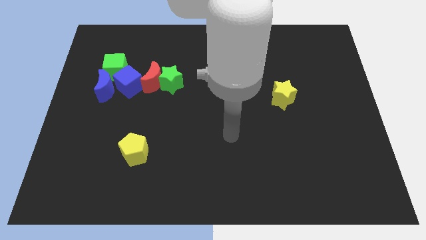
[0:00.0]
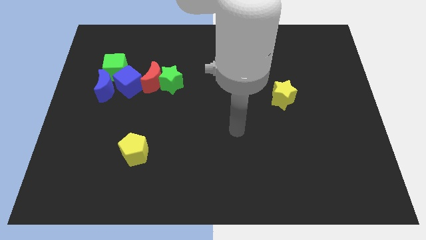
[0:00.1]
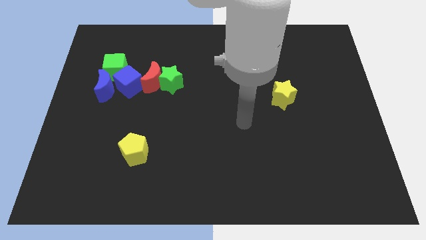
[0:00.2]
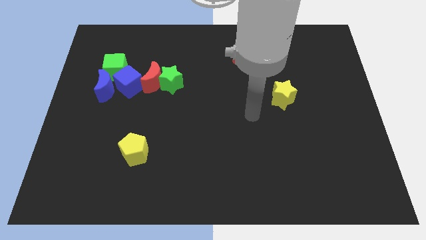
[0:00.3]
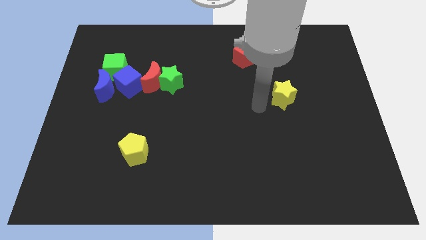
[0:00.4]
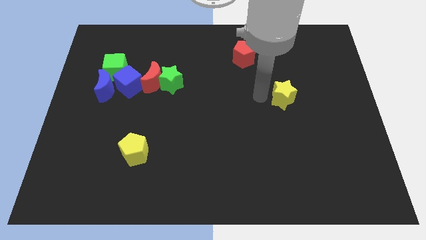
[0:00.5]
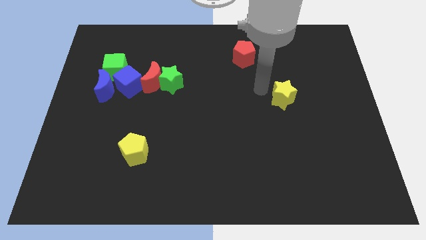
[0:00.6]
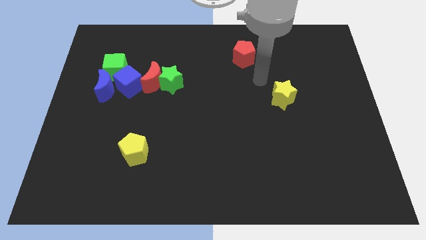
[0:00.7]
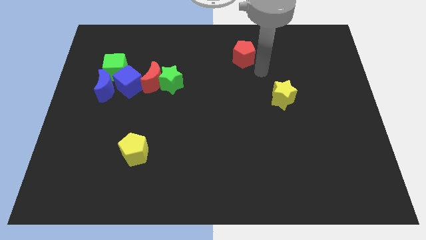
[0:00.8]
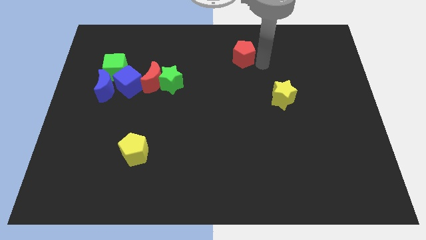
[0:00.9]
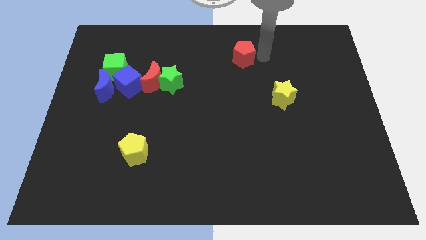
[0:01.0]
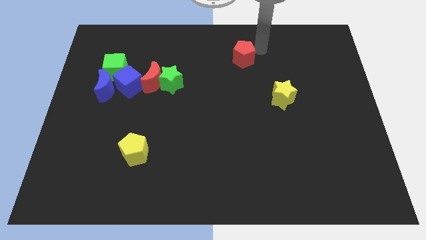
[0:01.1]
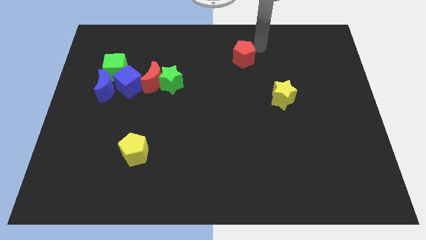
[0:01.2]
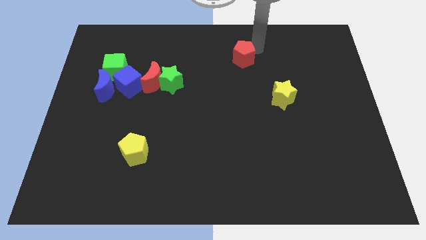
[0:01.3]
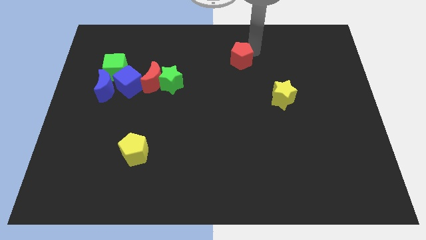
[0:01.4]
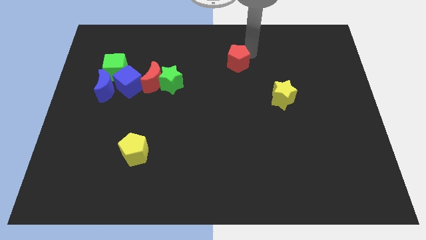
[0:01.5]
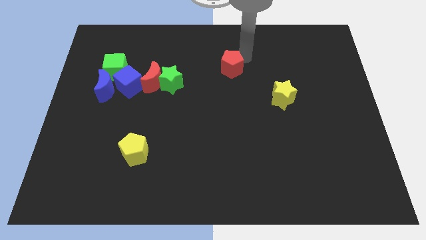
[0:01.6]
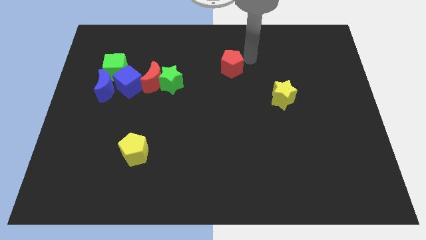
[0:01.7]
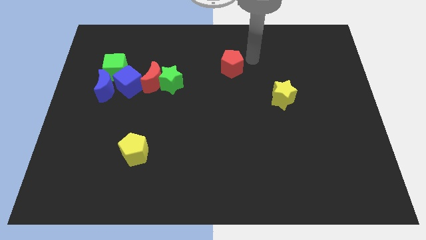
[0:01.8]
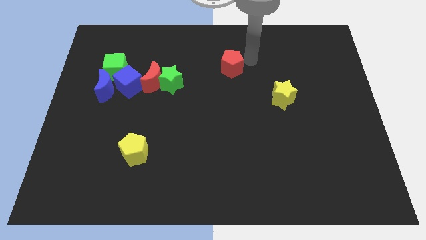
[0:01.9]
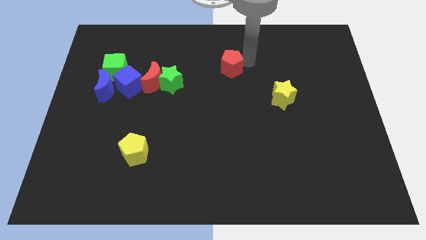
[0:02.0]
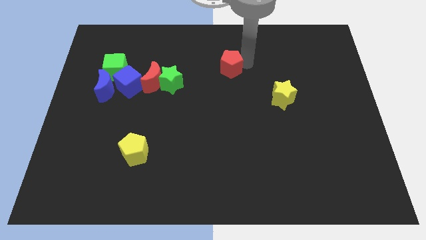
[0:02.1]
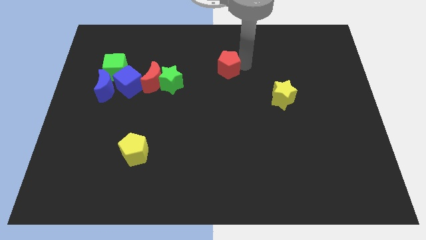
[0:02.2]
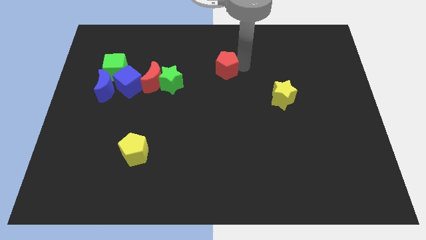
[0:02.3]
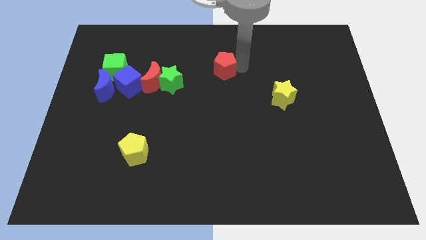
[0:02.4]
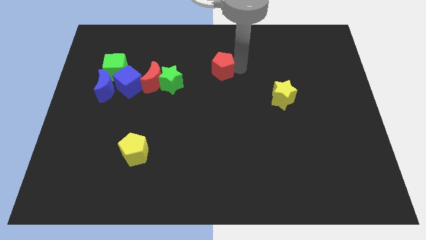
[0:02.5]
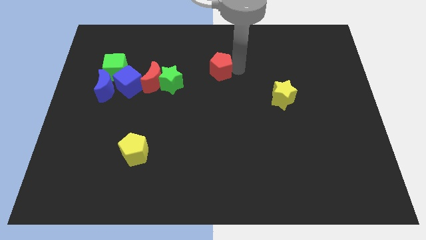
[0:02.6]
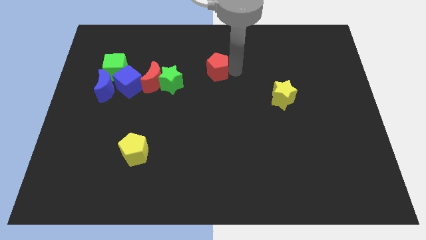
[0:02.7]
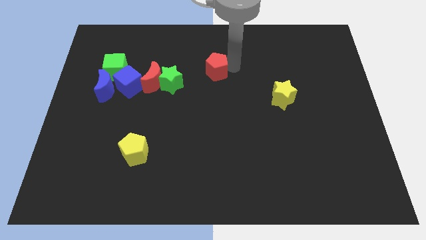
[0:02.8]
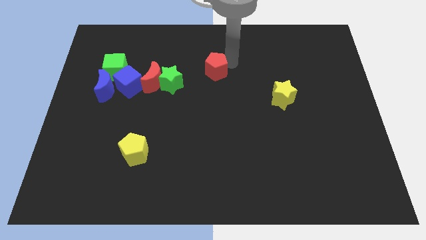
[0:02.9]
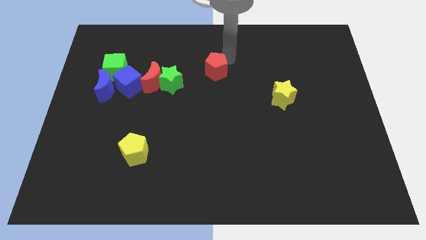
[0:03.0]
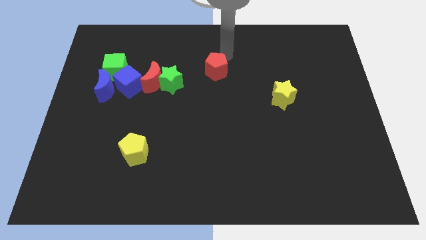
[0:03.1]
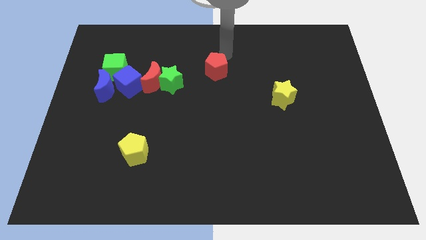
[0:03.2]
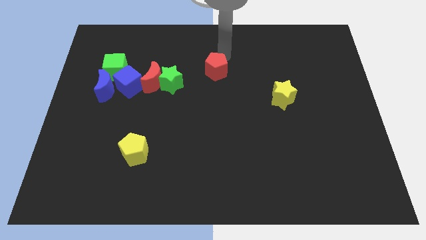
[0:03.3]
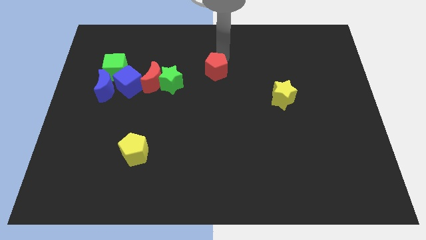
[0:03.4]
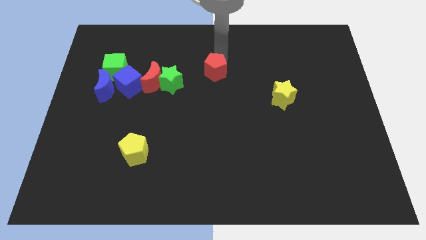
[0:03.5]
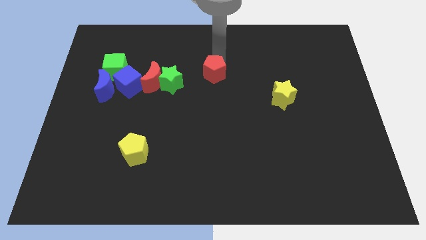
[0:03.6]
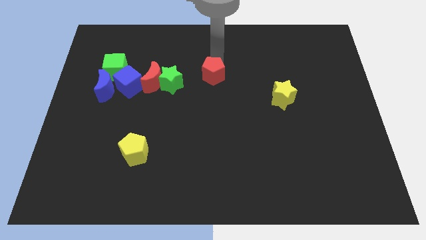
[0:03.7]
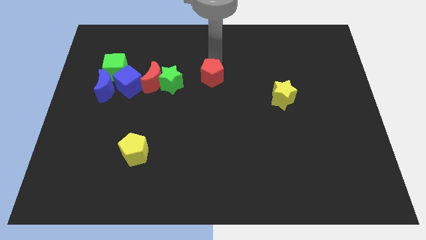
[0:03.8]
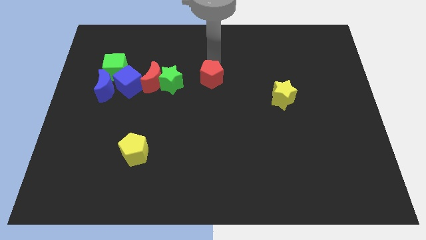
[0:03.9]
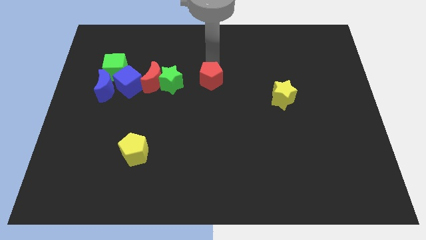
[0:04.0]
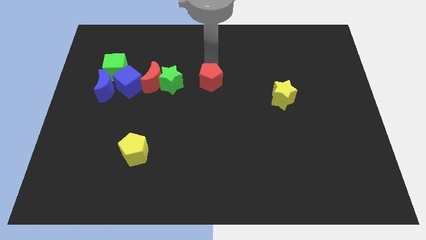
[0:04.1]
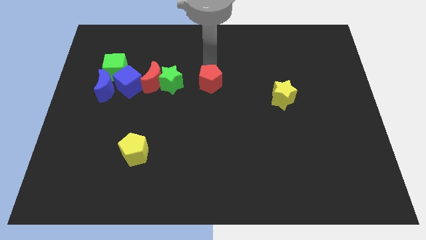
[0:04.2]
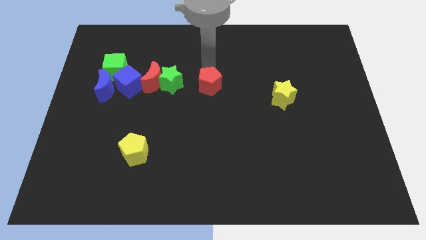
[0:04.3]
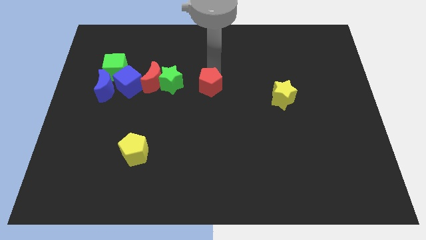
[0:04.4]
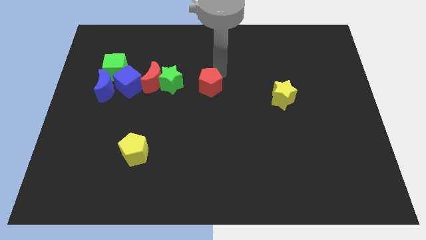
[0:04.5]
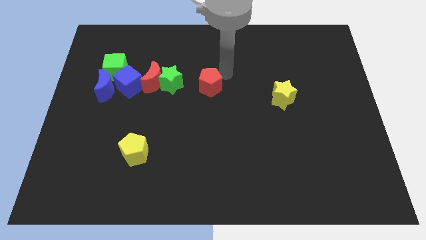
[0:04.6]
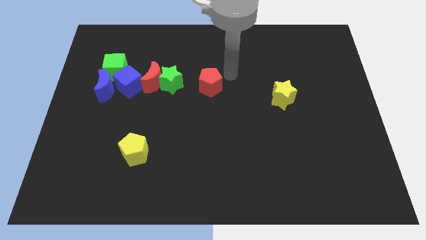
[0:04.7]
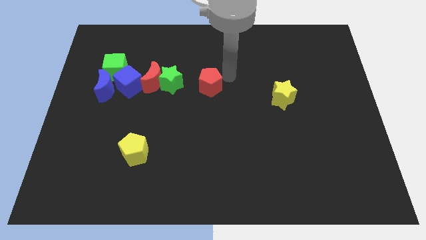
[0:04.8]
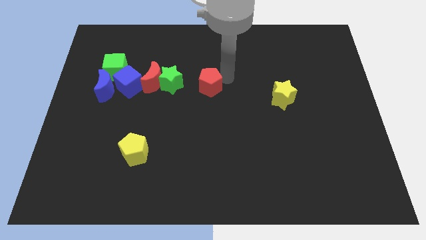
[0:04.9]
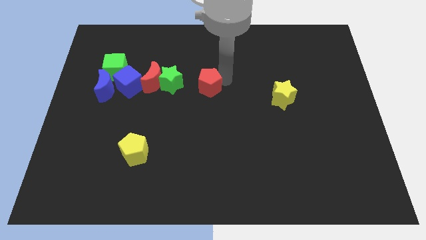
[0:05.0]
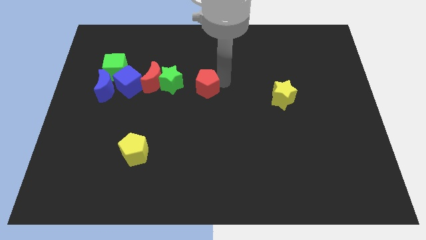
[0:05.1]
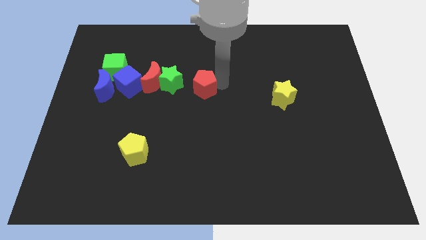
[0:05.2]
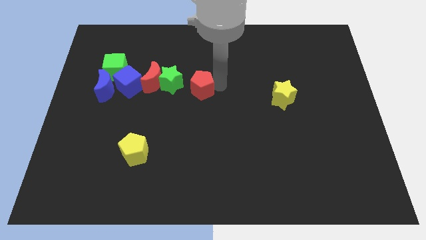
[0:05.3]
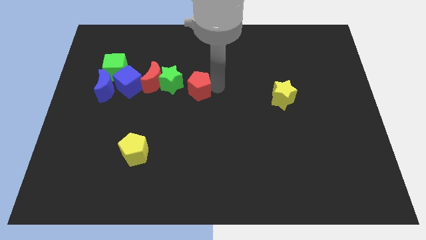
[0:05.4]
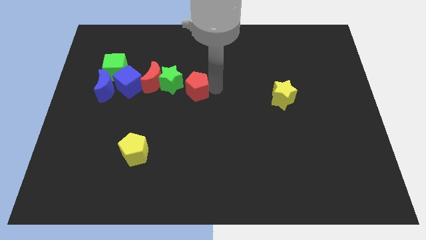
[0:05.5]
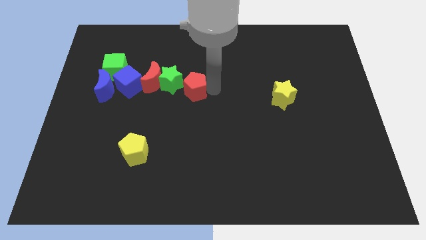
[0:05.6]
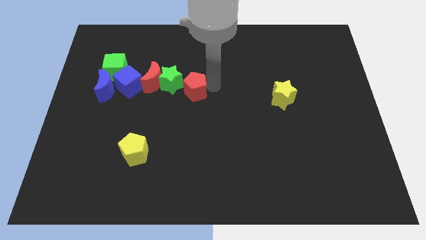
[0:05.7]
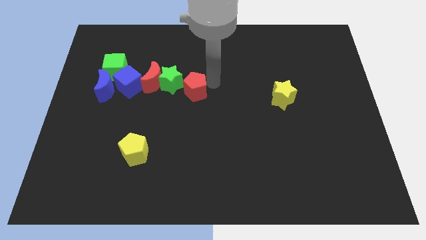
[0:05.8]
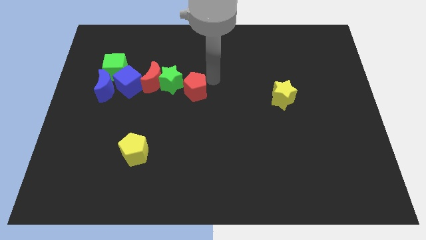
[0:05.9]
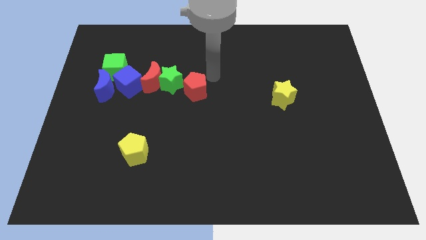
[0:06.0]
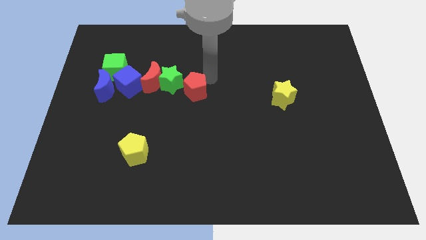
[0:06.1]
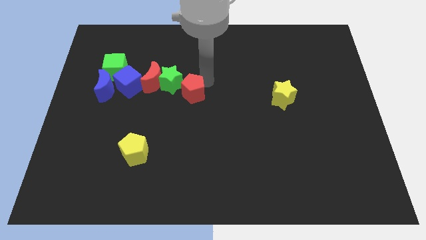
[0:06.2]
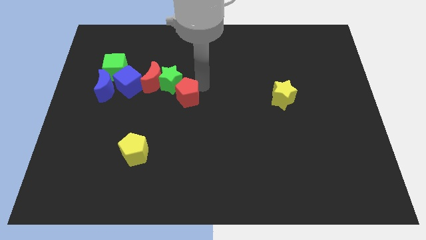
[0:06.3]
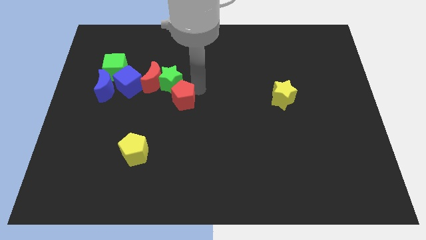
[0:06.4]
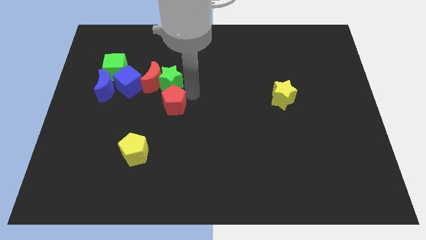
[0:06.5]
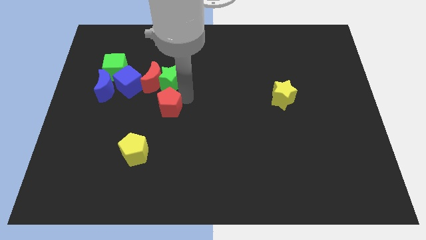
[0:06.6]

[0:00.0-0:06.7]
move the red pentagon to the bottom side of the red moon

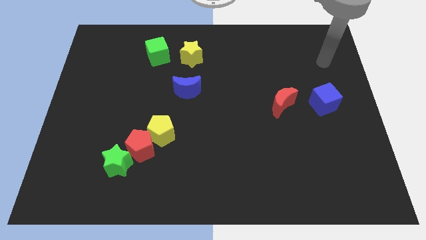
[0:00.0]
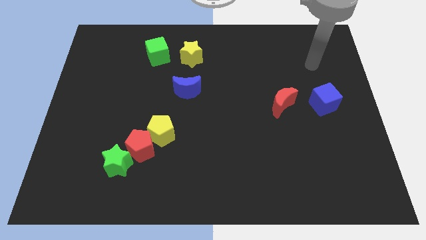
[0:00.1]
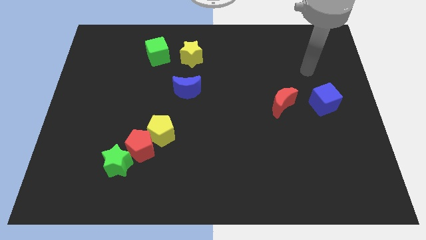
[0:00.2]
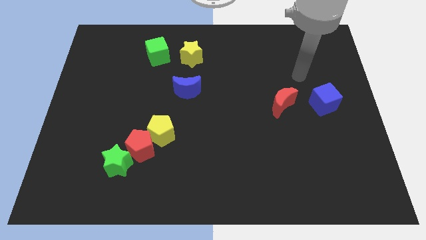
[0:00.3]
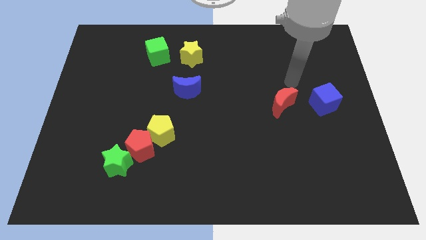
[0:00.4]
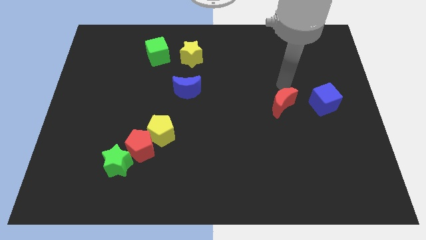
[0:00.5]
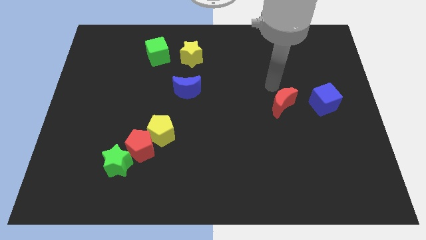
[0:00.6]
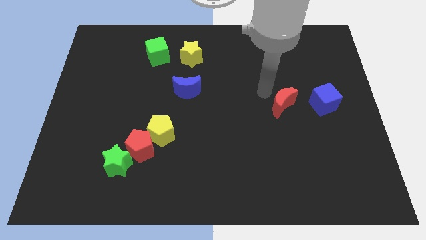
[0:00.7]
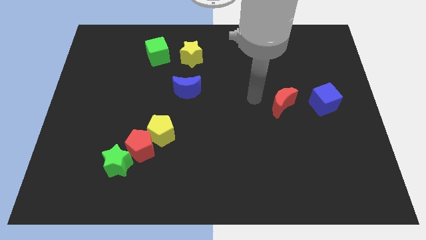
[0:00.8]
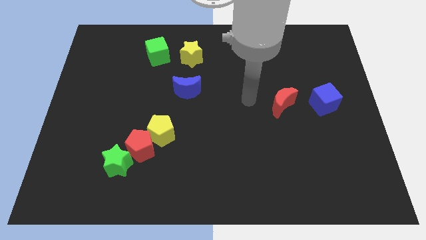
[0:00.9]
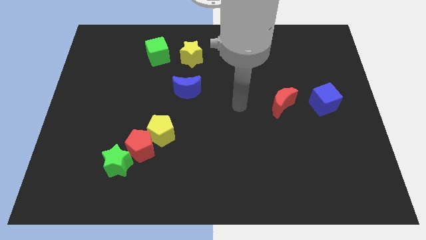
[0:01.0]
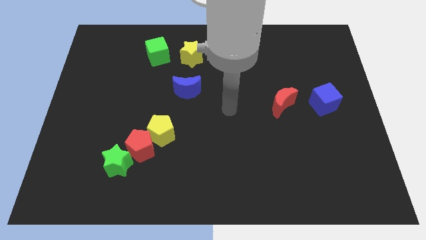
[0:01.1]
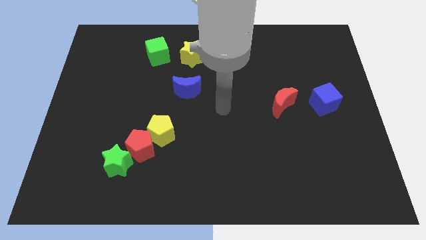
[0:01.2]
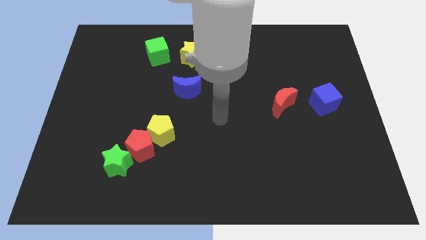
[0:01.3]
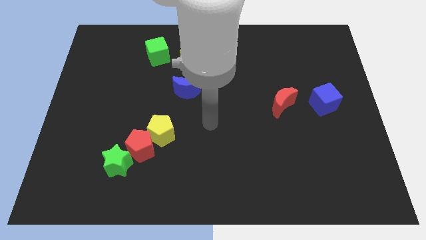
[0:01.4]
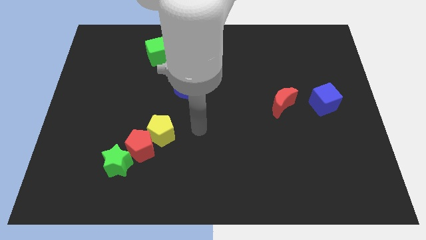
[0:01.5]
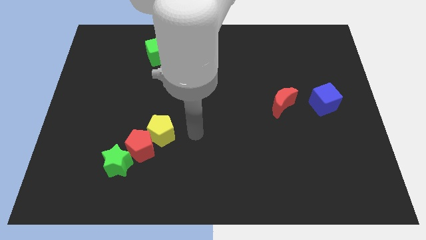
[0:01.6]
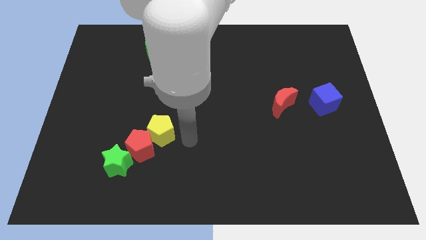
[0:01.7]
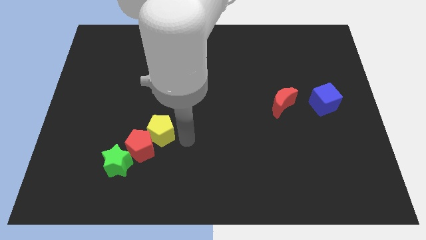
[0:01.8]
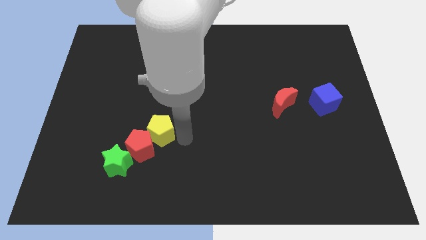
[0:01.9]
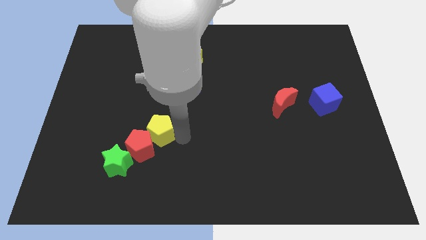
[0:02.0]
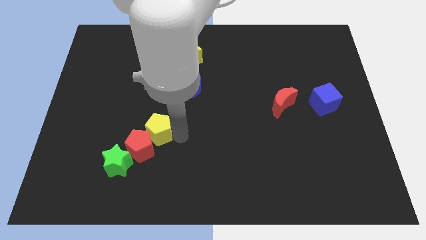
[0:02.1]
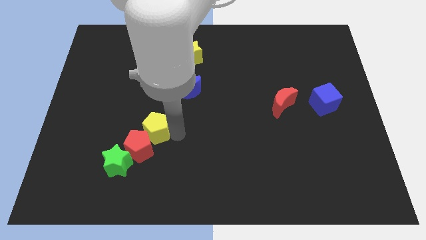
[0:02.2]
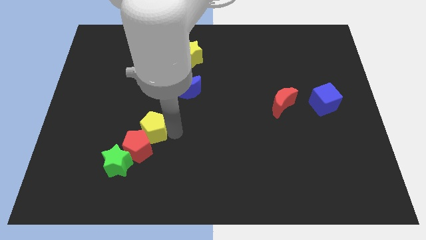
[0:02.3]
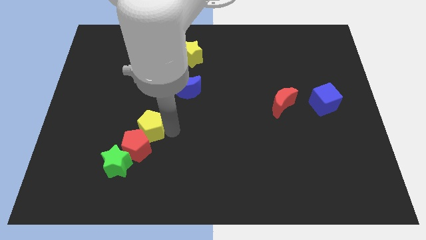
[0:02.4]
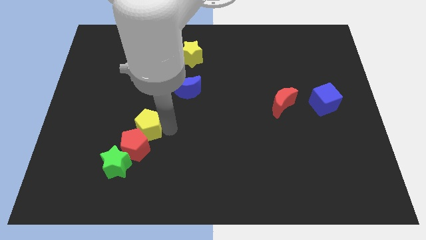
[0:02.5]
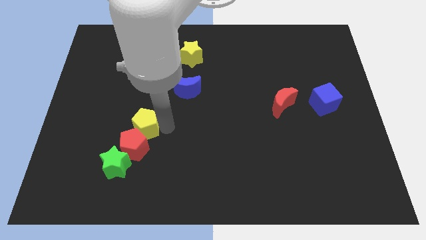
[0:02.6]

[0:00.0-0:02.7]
put the yellow pentagon to the top side of the green star
